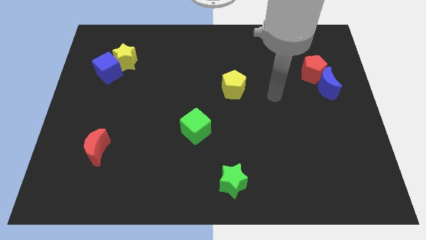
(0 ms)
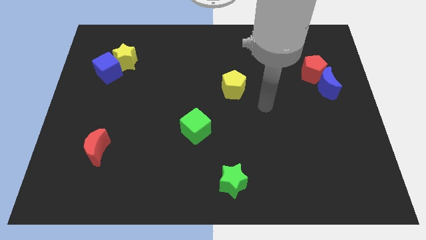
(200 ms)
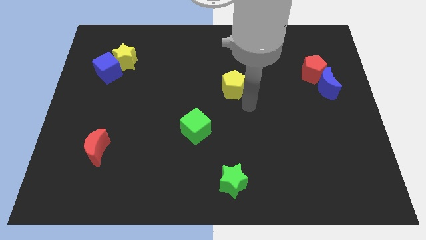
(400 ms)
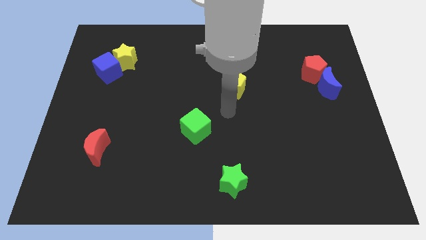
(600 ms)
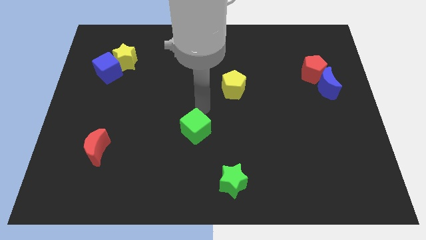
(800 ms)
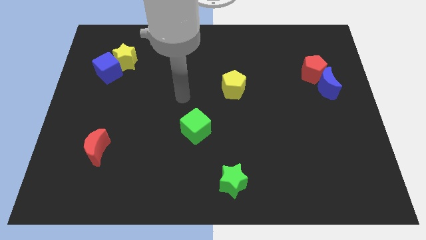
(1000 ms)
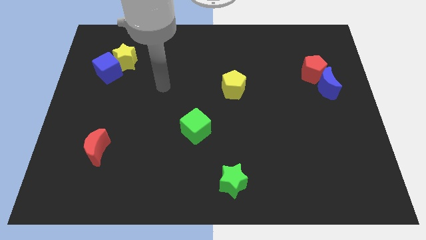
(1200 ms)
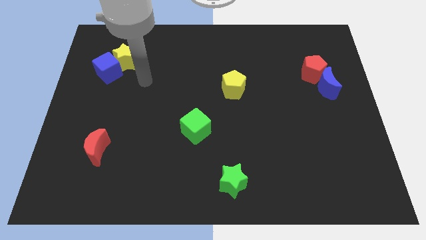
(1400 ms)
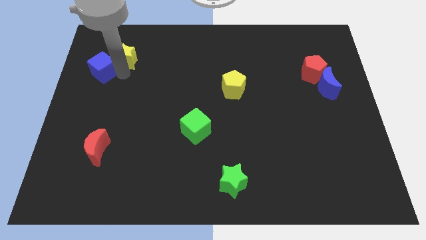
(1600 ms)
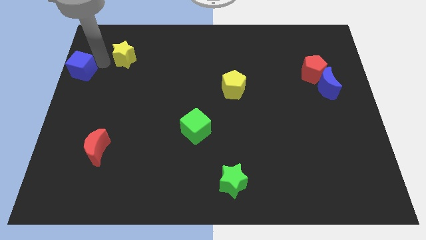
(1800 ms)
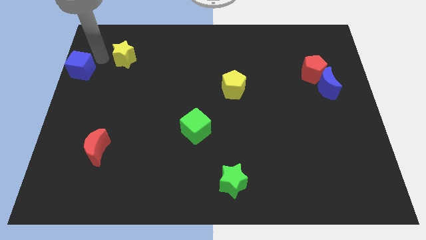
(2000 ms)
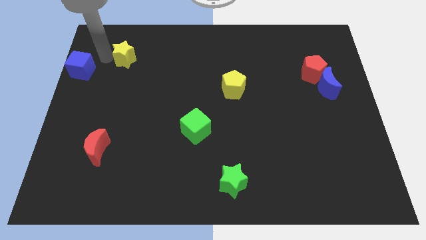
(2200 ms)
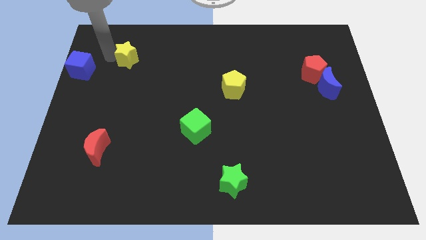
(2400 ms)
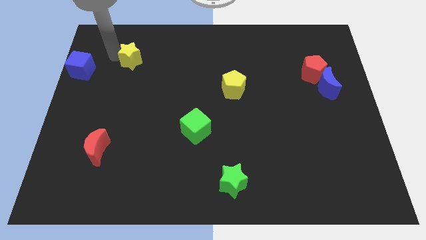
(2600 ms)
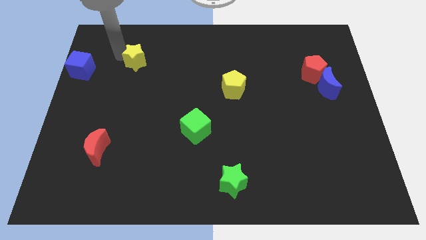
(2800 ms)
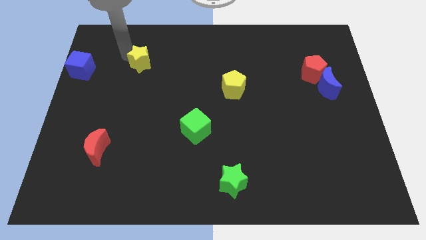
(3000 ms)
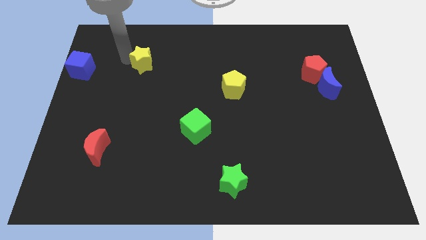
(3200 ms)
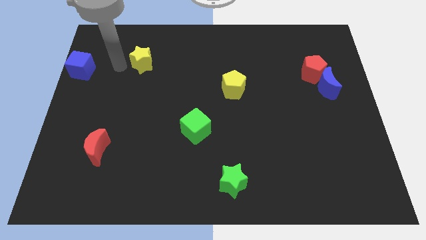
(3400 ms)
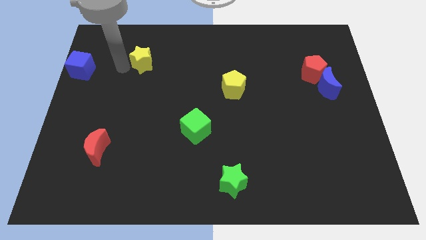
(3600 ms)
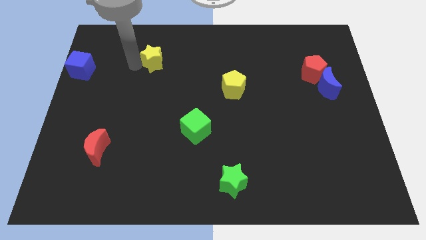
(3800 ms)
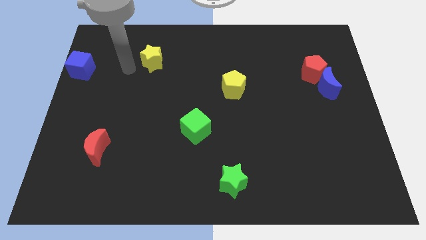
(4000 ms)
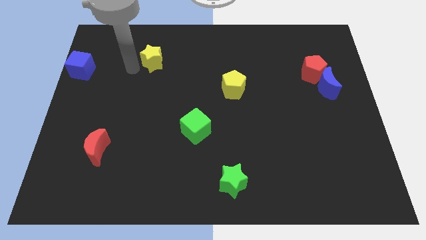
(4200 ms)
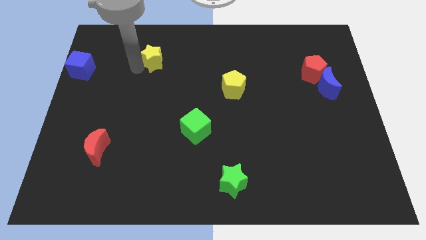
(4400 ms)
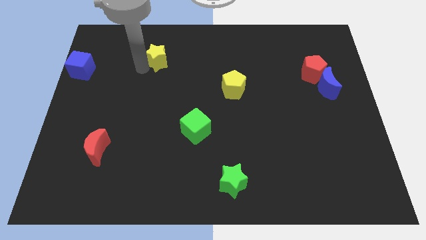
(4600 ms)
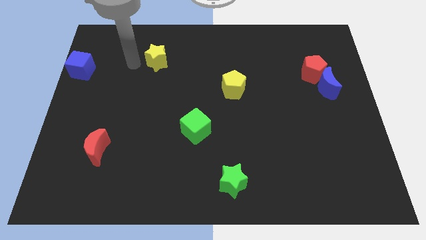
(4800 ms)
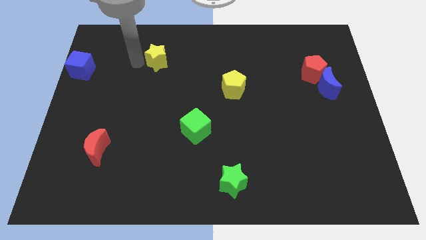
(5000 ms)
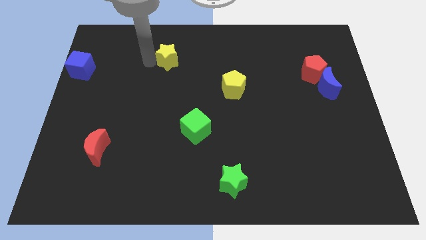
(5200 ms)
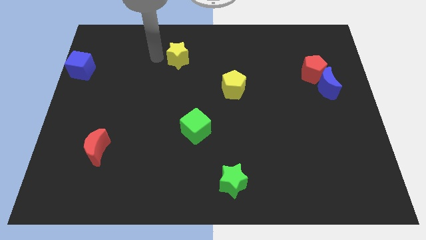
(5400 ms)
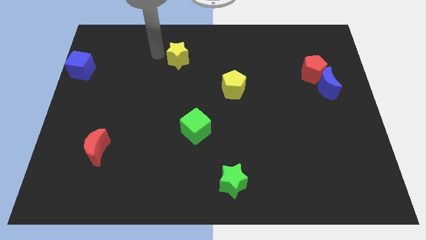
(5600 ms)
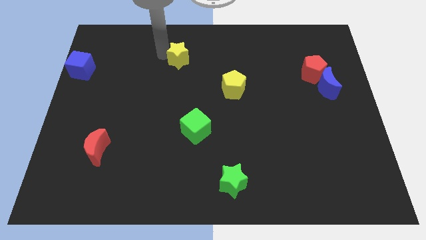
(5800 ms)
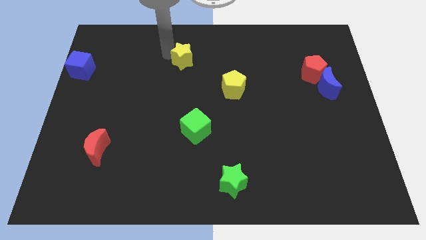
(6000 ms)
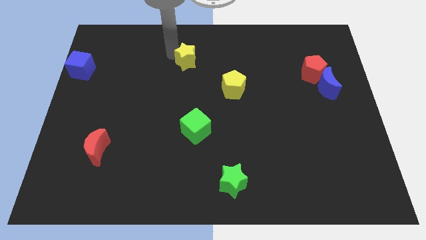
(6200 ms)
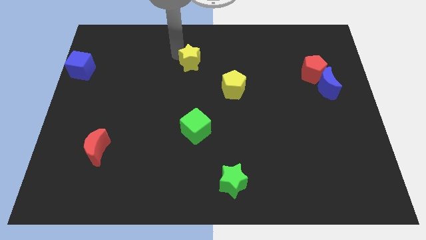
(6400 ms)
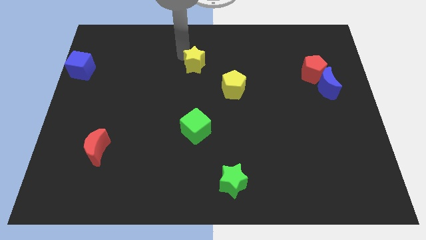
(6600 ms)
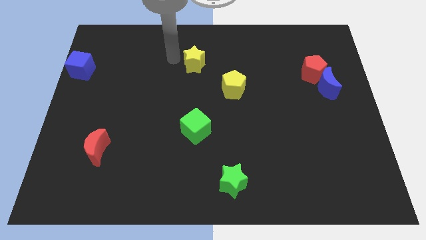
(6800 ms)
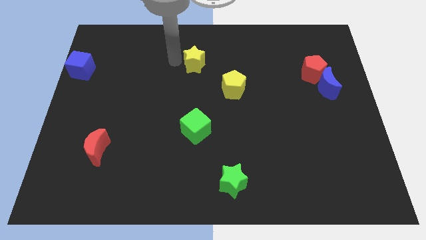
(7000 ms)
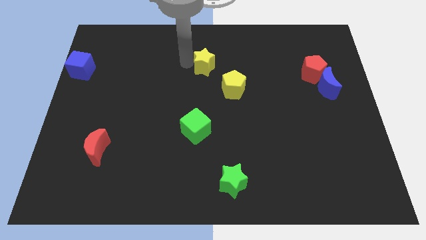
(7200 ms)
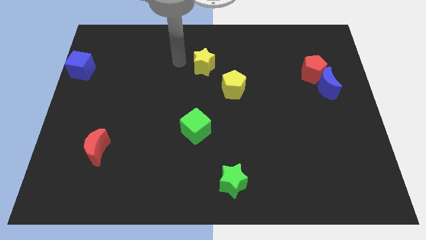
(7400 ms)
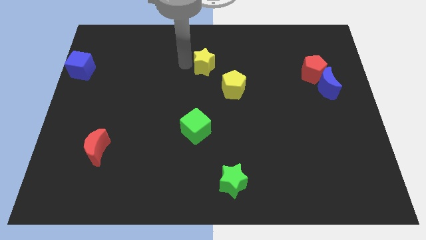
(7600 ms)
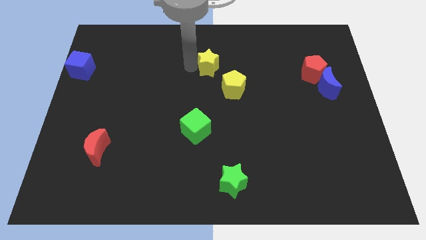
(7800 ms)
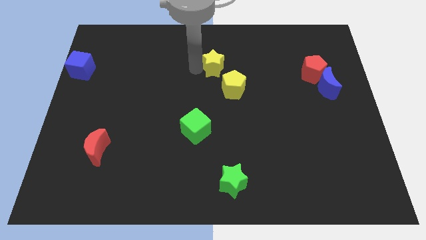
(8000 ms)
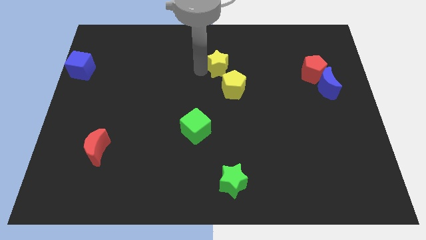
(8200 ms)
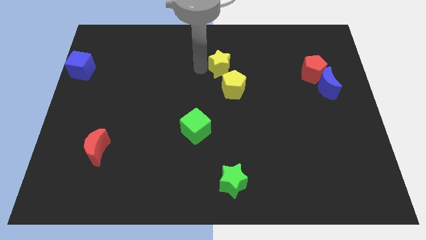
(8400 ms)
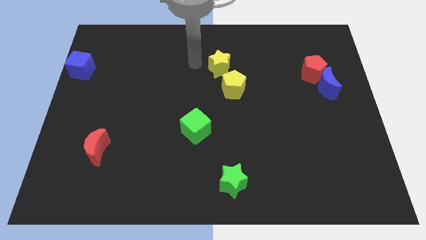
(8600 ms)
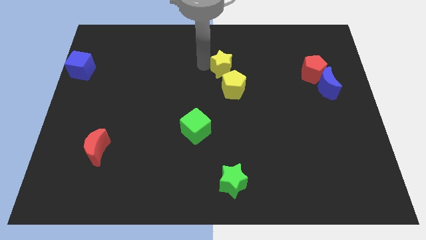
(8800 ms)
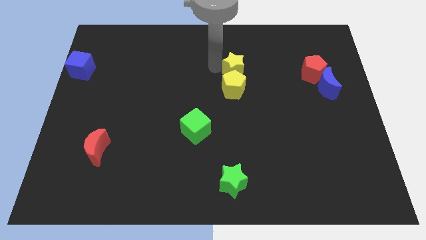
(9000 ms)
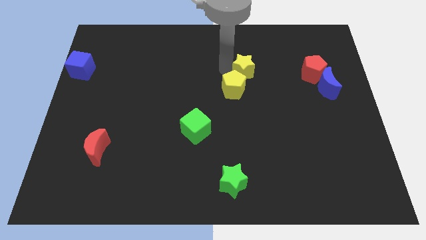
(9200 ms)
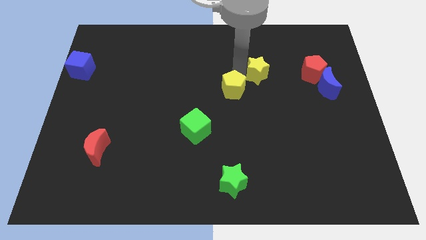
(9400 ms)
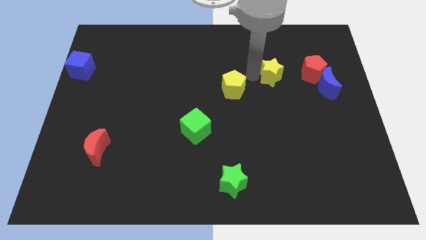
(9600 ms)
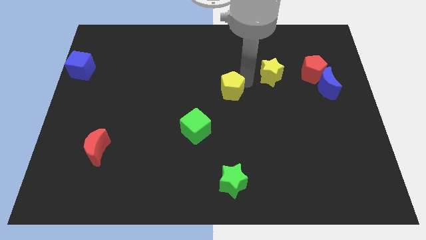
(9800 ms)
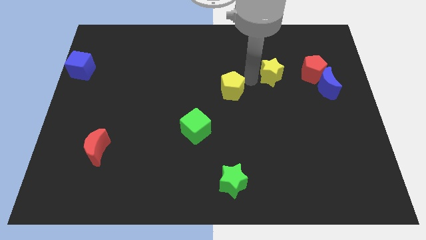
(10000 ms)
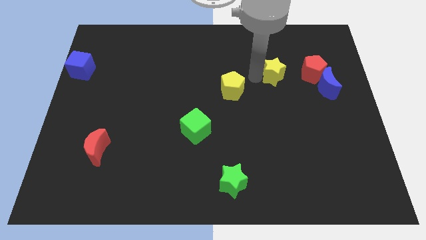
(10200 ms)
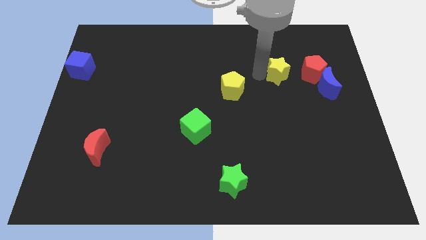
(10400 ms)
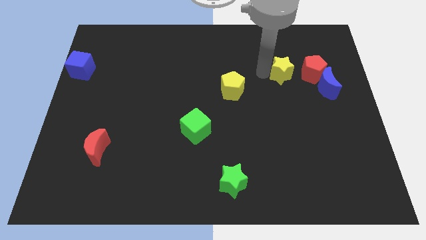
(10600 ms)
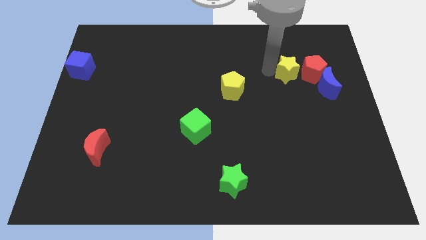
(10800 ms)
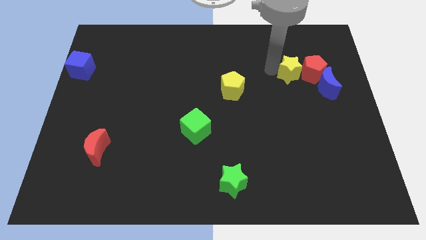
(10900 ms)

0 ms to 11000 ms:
move the yellow star close to the red pentagon

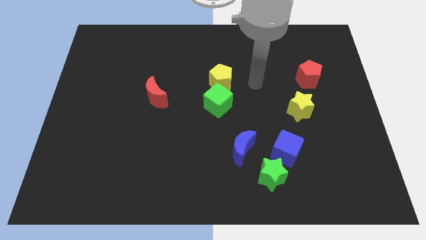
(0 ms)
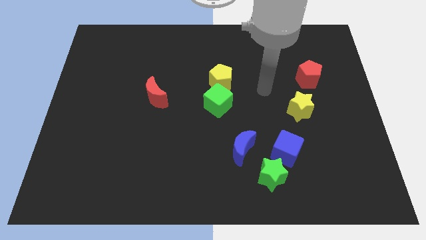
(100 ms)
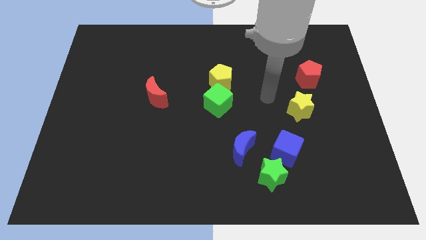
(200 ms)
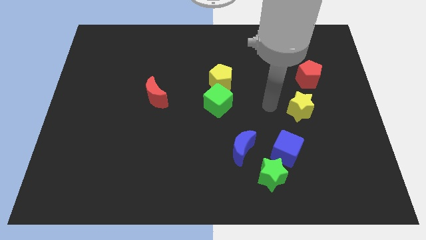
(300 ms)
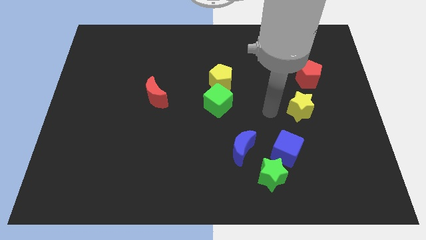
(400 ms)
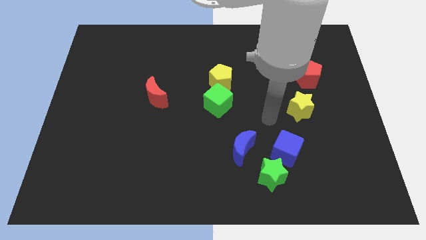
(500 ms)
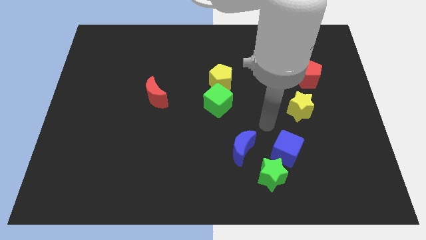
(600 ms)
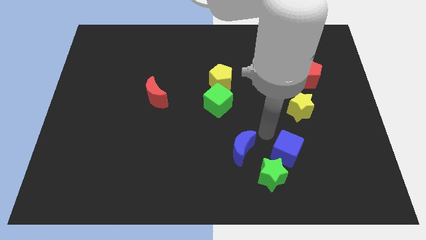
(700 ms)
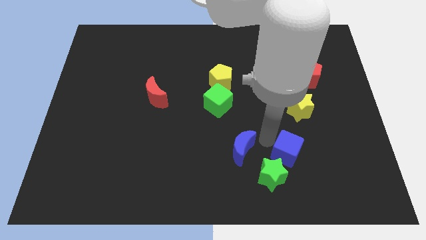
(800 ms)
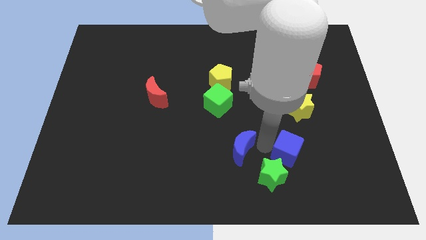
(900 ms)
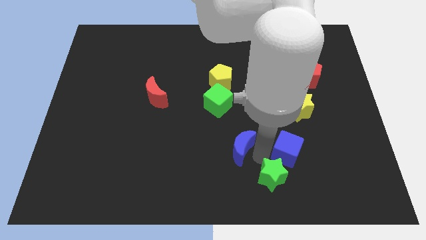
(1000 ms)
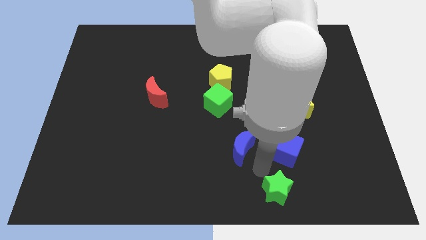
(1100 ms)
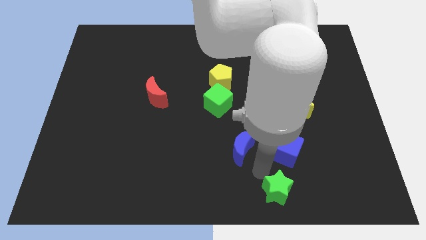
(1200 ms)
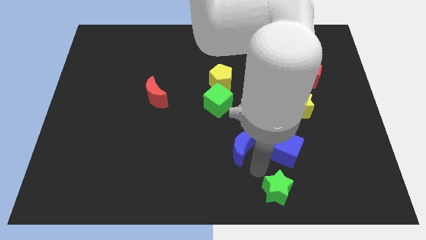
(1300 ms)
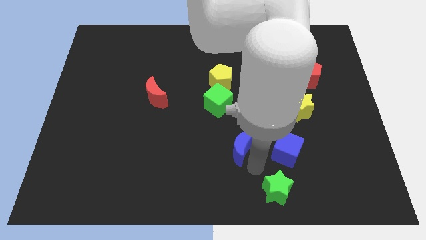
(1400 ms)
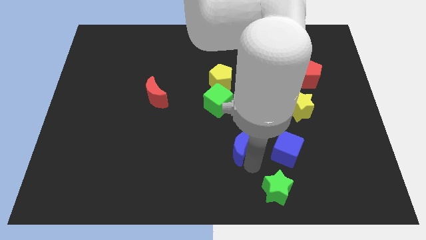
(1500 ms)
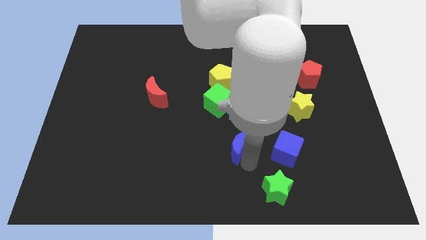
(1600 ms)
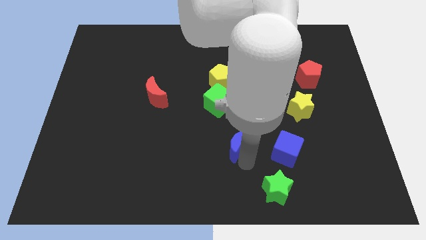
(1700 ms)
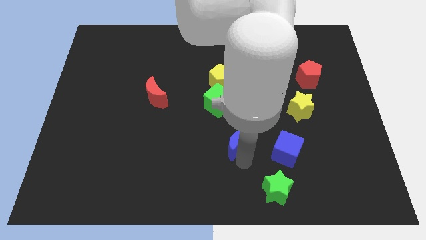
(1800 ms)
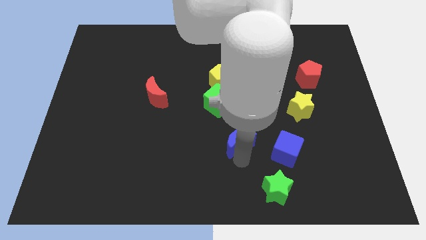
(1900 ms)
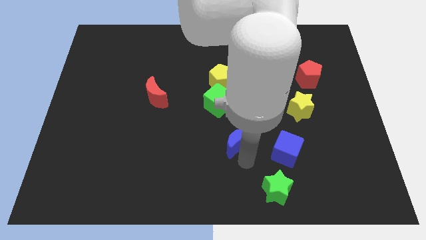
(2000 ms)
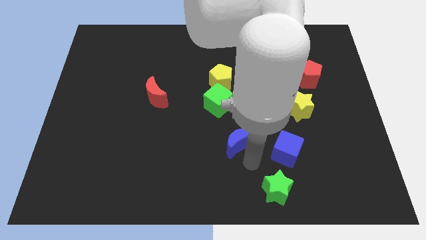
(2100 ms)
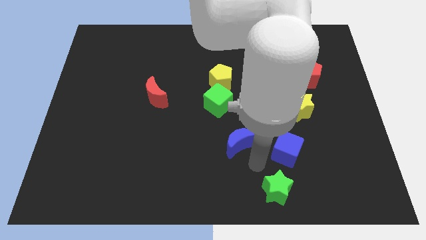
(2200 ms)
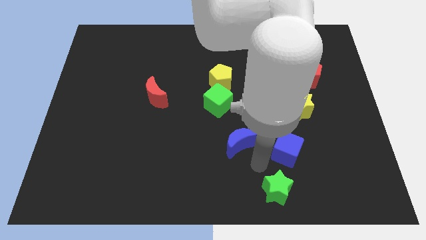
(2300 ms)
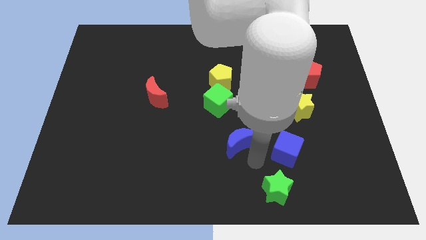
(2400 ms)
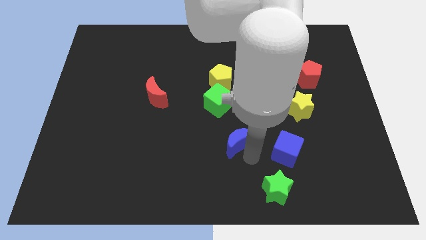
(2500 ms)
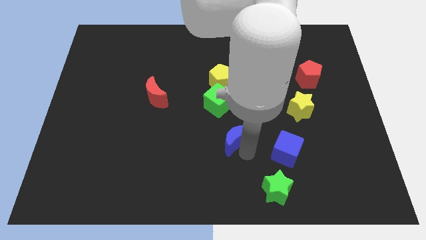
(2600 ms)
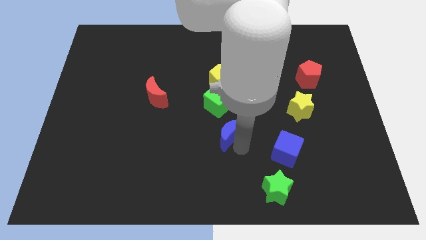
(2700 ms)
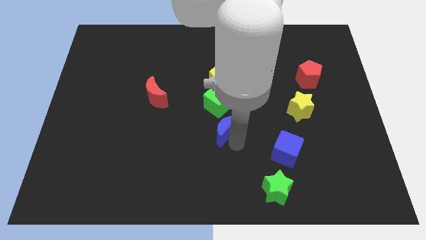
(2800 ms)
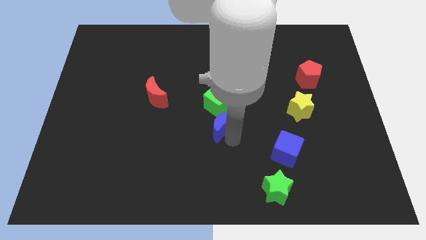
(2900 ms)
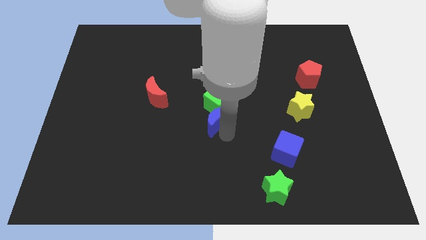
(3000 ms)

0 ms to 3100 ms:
push the blue moon close to the green cube
